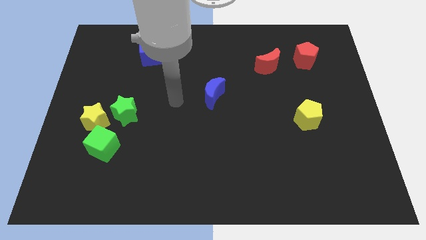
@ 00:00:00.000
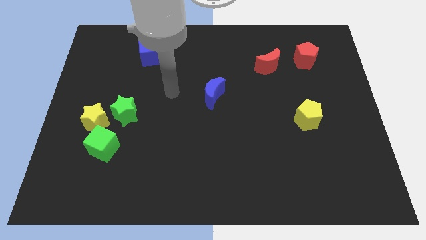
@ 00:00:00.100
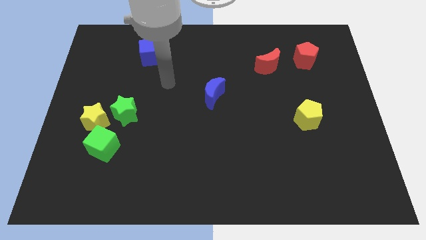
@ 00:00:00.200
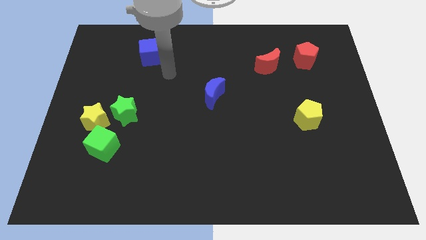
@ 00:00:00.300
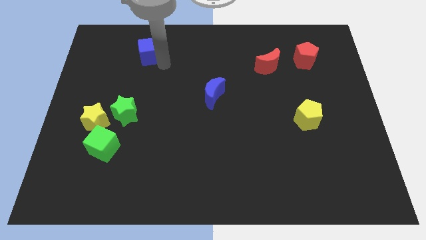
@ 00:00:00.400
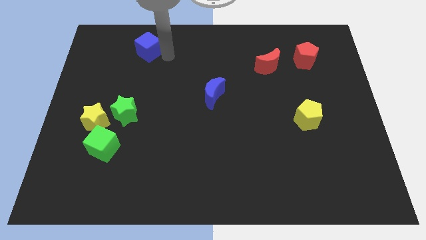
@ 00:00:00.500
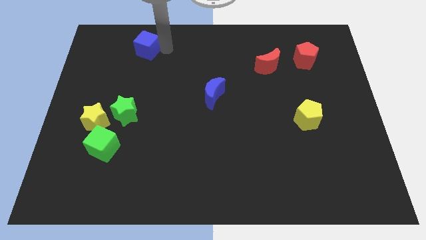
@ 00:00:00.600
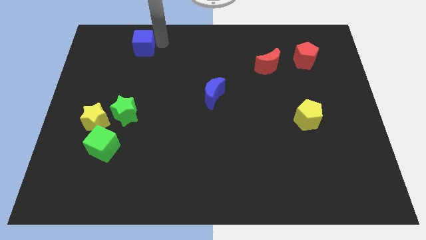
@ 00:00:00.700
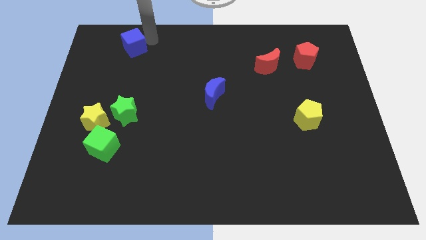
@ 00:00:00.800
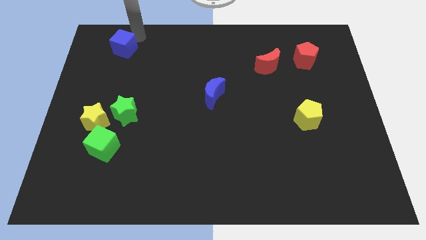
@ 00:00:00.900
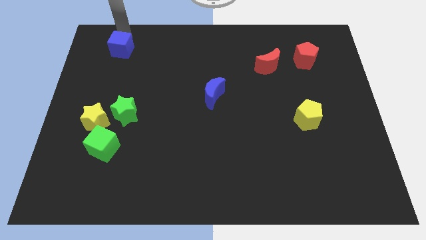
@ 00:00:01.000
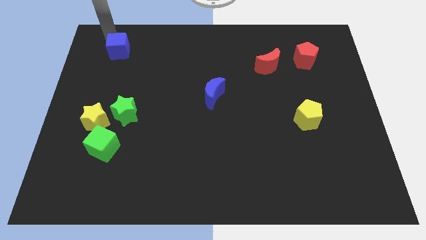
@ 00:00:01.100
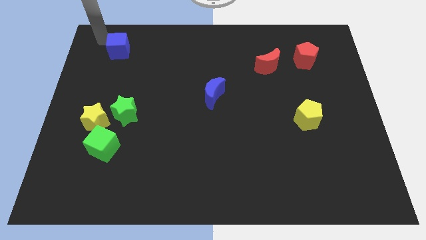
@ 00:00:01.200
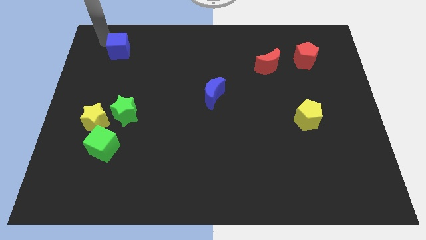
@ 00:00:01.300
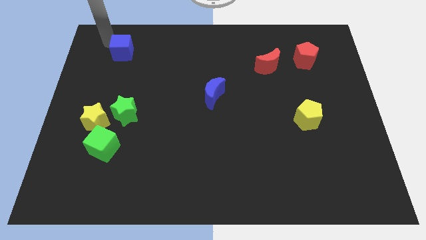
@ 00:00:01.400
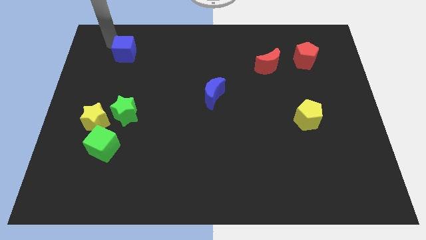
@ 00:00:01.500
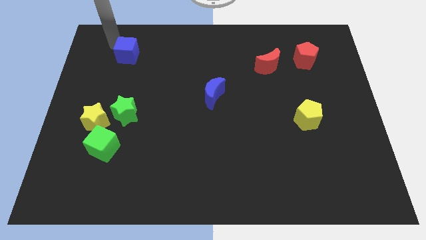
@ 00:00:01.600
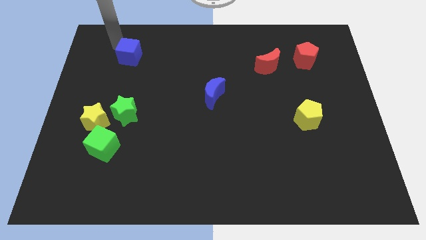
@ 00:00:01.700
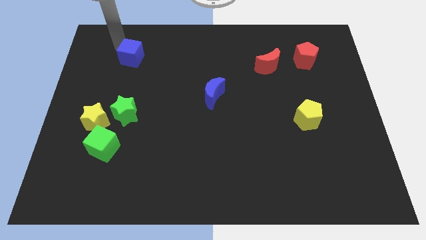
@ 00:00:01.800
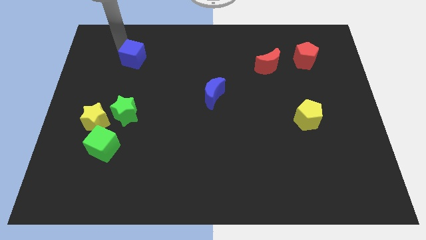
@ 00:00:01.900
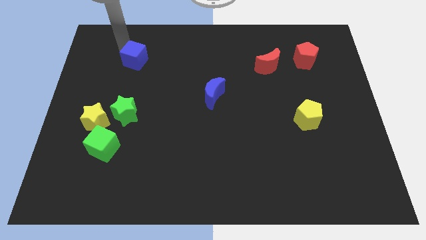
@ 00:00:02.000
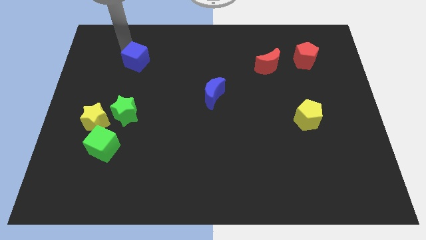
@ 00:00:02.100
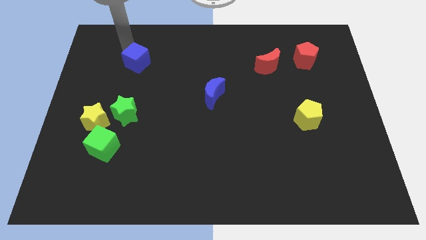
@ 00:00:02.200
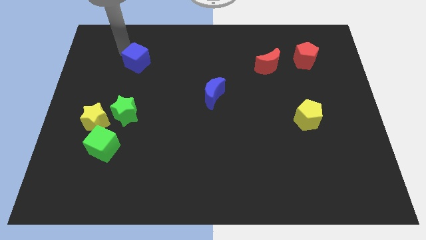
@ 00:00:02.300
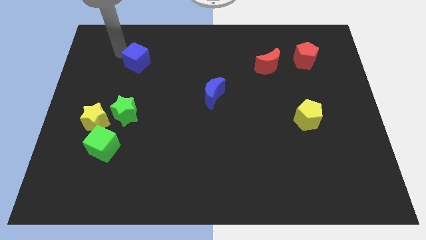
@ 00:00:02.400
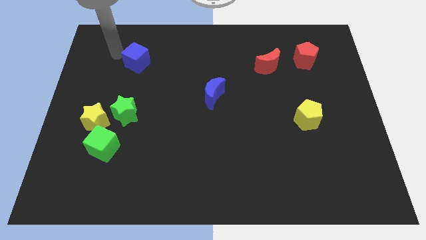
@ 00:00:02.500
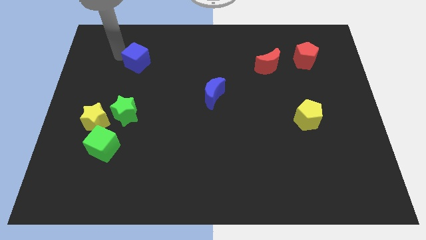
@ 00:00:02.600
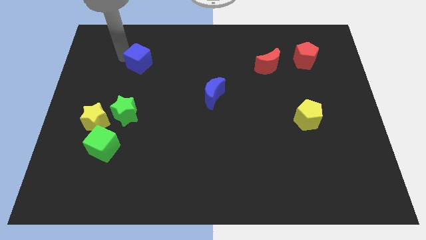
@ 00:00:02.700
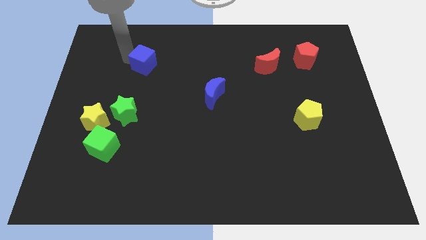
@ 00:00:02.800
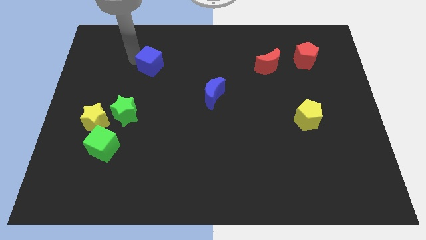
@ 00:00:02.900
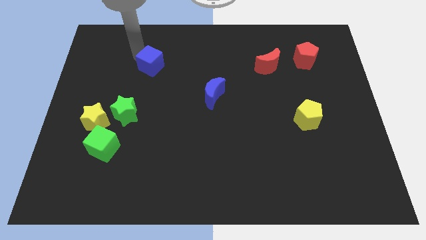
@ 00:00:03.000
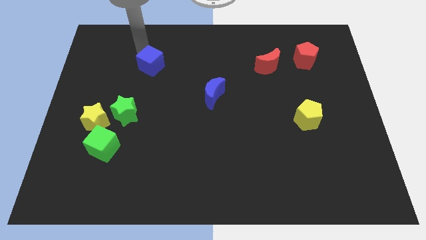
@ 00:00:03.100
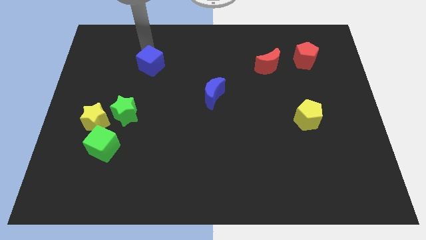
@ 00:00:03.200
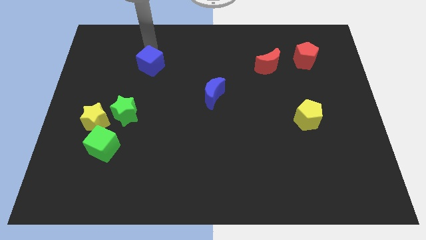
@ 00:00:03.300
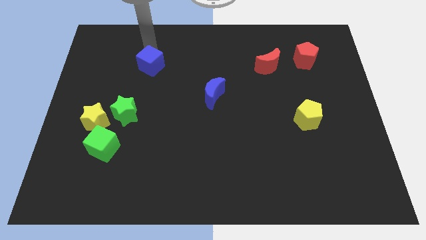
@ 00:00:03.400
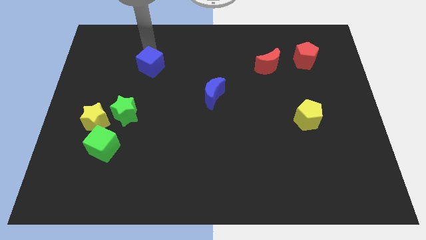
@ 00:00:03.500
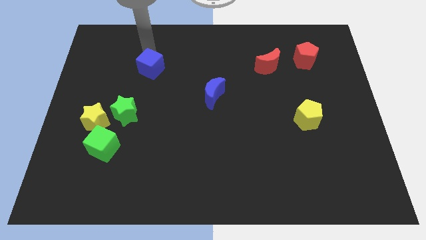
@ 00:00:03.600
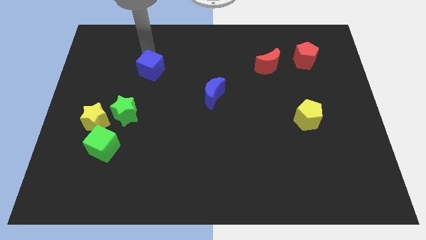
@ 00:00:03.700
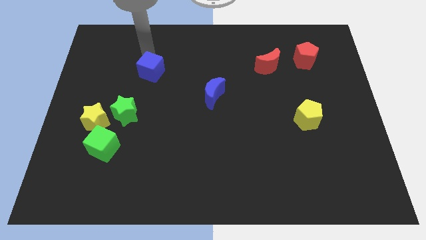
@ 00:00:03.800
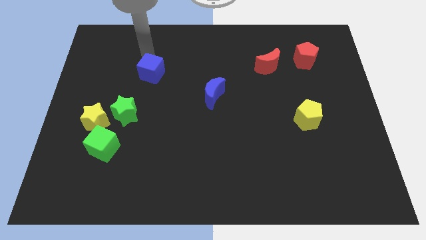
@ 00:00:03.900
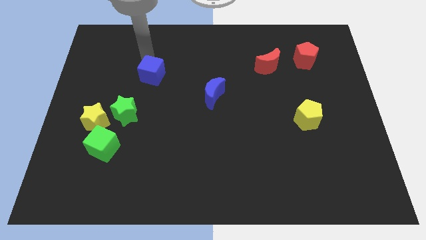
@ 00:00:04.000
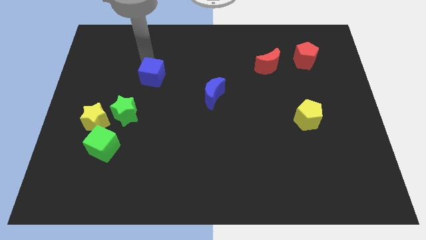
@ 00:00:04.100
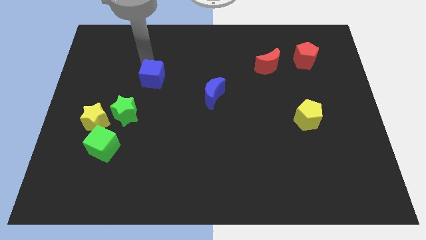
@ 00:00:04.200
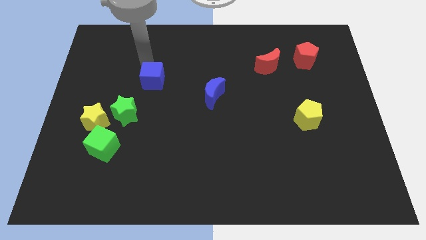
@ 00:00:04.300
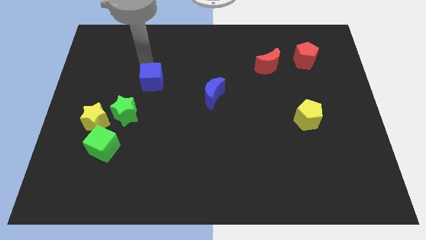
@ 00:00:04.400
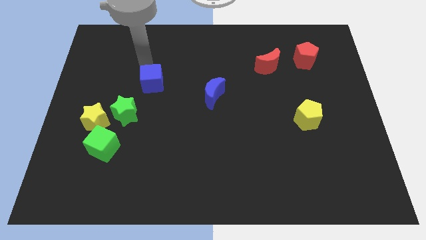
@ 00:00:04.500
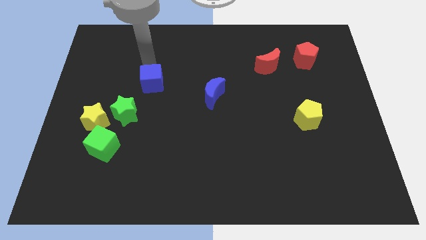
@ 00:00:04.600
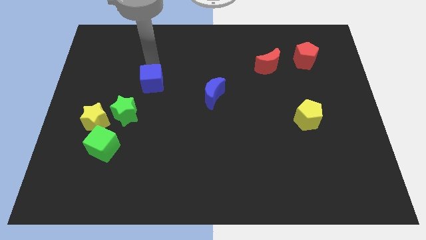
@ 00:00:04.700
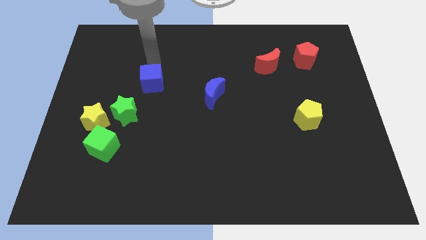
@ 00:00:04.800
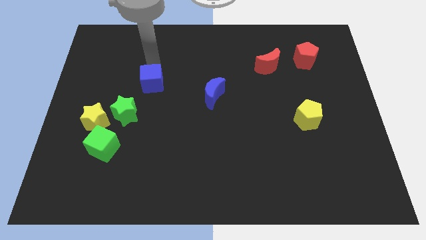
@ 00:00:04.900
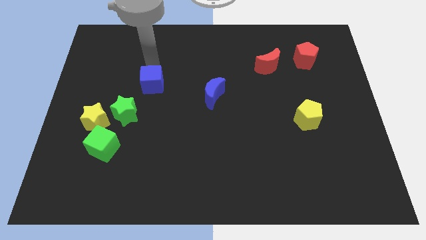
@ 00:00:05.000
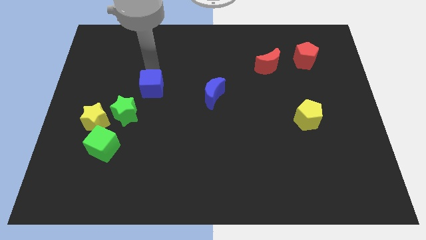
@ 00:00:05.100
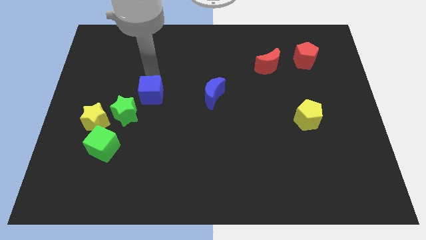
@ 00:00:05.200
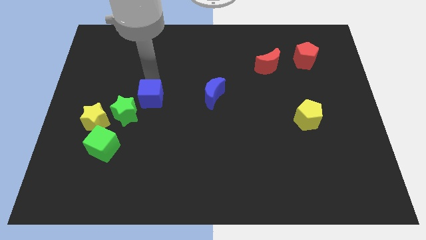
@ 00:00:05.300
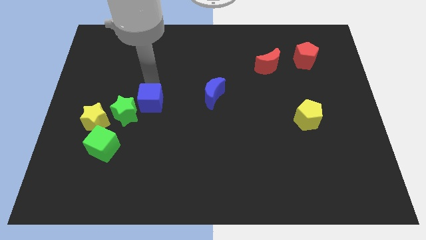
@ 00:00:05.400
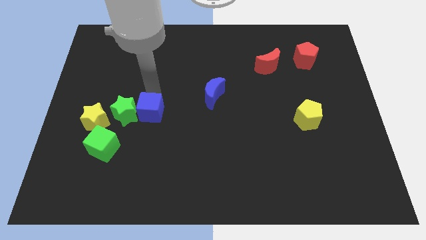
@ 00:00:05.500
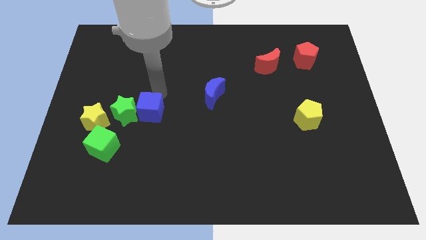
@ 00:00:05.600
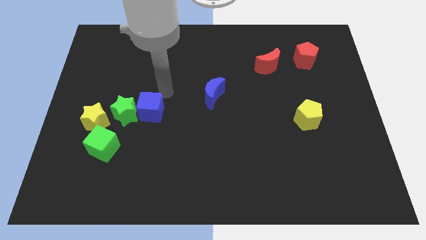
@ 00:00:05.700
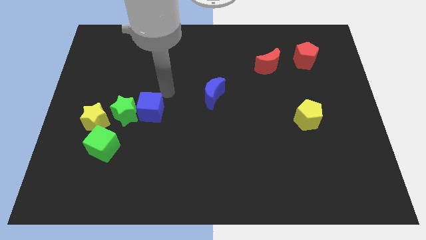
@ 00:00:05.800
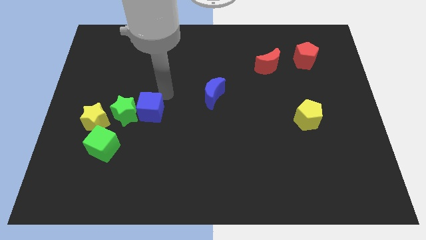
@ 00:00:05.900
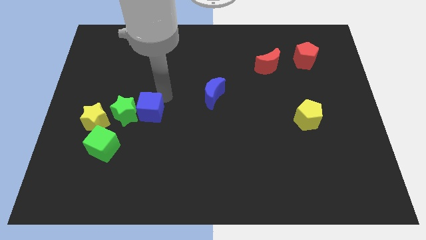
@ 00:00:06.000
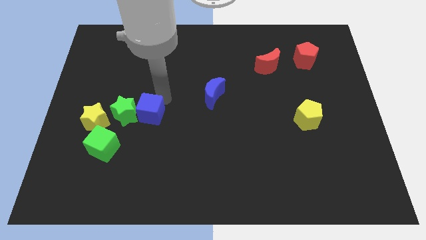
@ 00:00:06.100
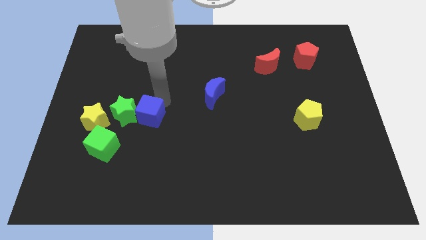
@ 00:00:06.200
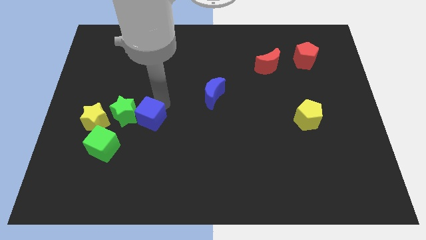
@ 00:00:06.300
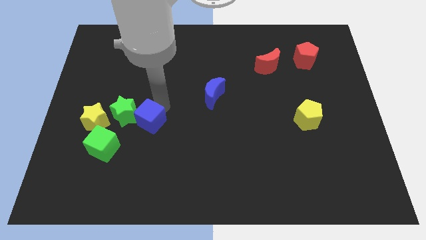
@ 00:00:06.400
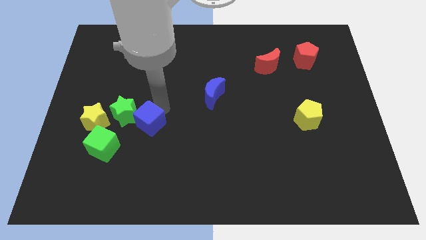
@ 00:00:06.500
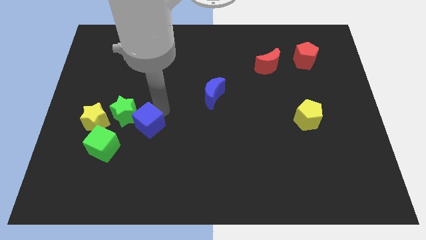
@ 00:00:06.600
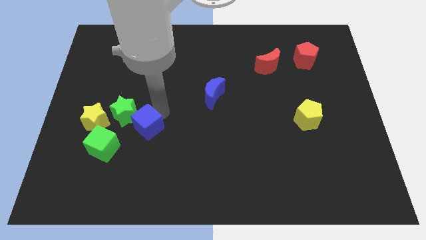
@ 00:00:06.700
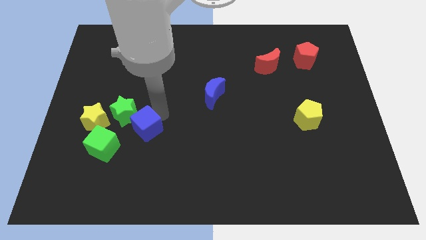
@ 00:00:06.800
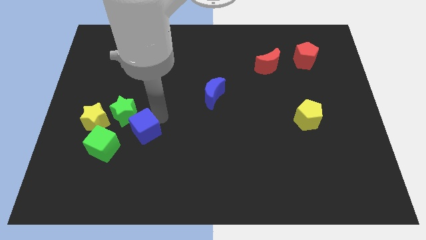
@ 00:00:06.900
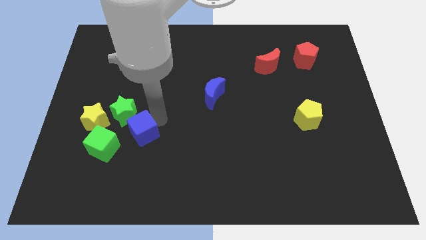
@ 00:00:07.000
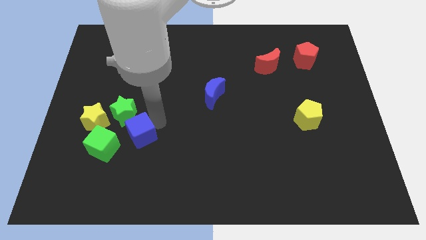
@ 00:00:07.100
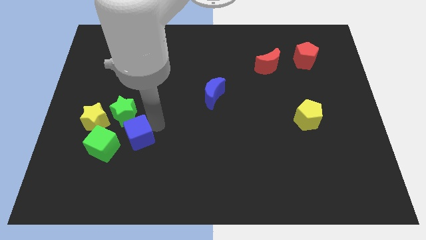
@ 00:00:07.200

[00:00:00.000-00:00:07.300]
put the blue cube to the bottom right side of the yellow star
